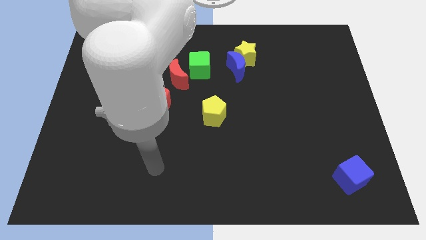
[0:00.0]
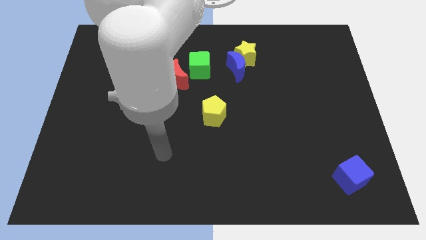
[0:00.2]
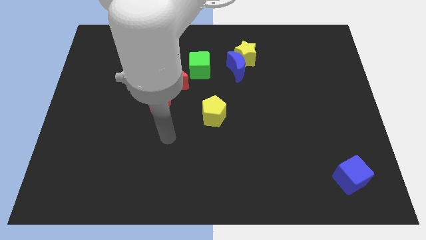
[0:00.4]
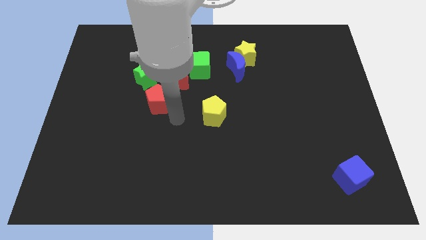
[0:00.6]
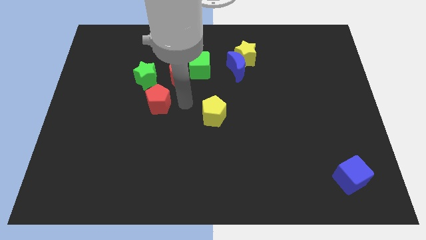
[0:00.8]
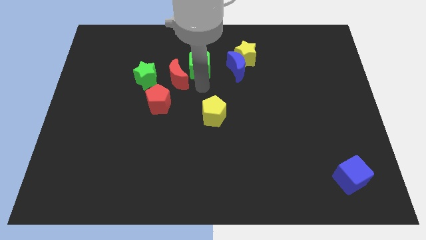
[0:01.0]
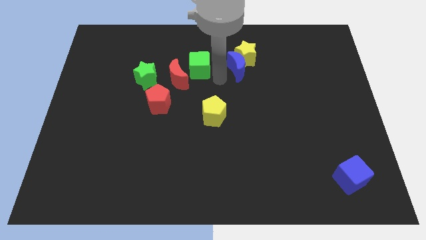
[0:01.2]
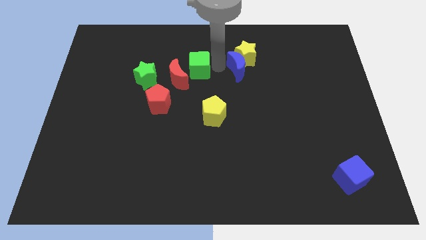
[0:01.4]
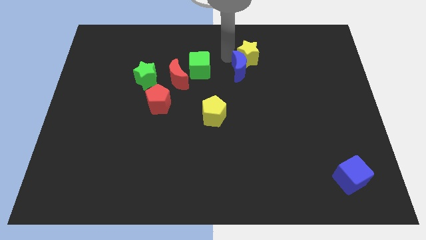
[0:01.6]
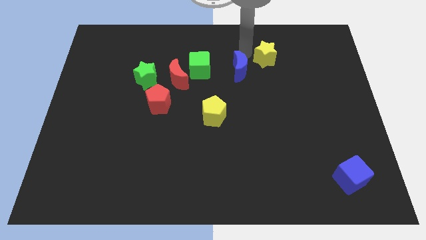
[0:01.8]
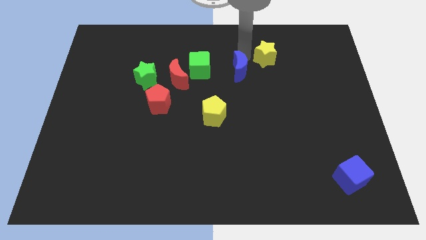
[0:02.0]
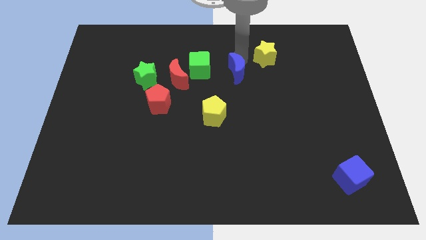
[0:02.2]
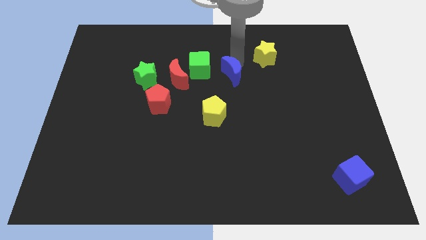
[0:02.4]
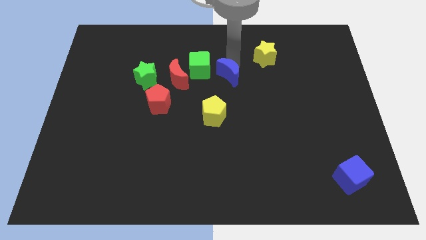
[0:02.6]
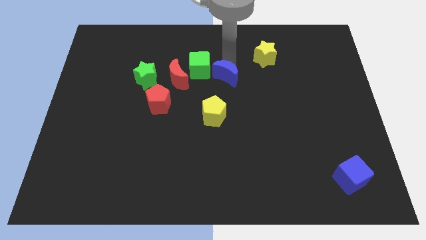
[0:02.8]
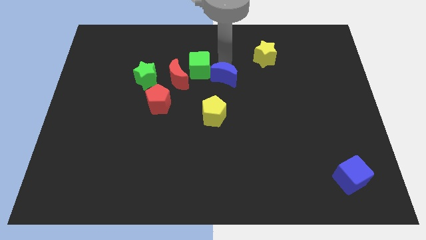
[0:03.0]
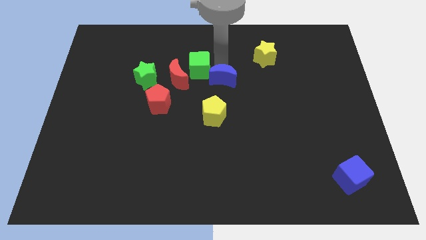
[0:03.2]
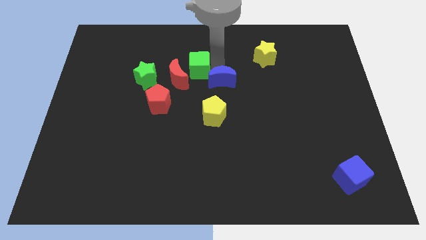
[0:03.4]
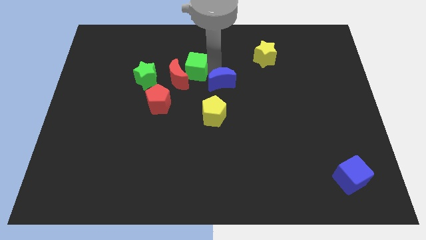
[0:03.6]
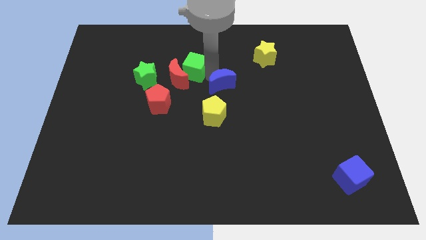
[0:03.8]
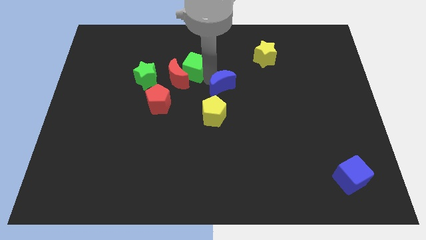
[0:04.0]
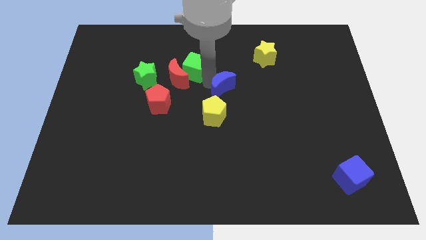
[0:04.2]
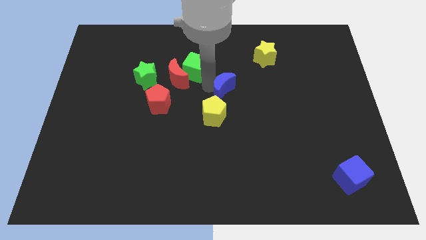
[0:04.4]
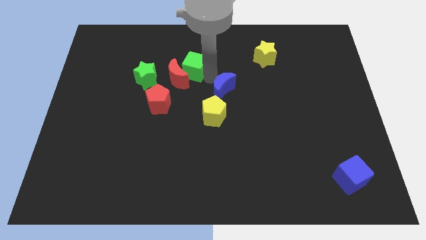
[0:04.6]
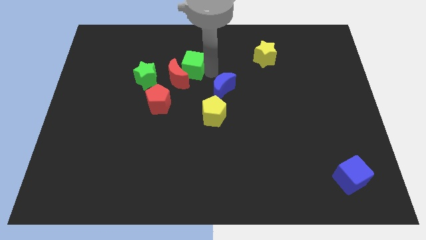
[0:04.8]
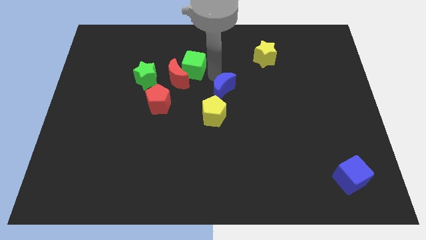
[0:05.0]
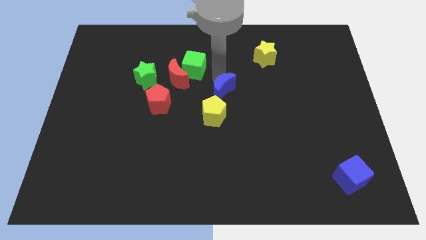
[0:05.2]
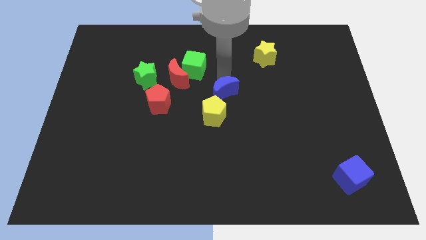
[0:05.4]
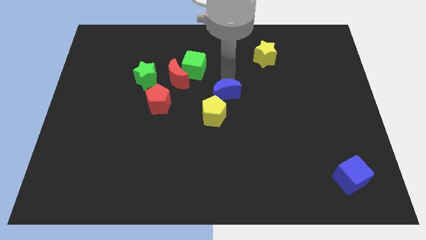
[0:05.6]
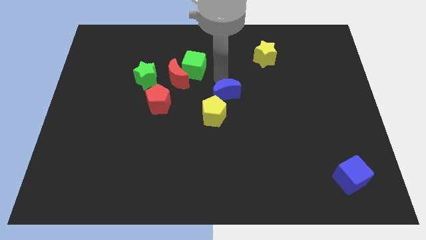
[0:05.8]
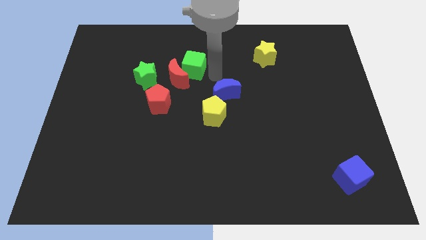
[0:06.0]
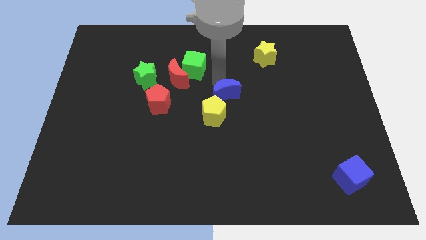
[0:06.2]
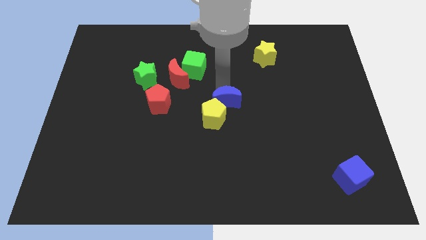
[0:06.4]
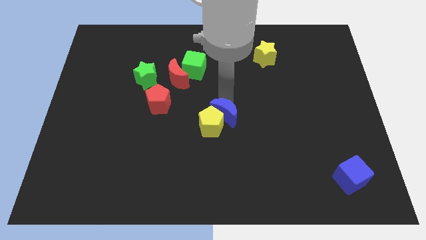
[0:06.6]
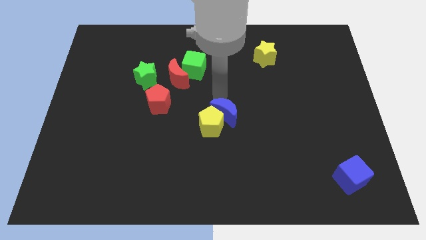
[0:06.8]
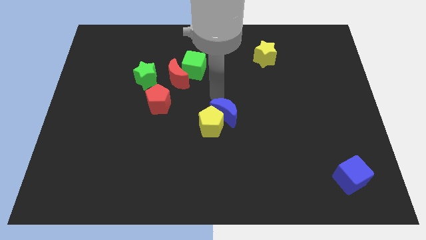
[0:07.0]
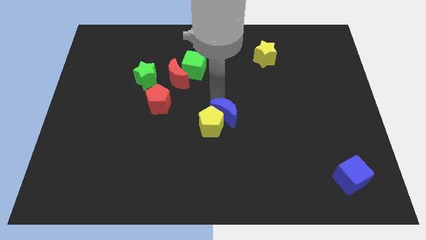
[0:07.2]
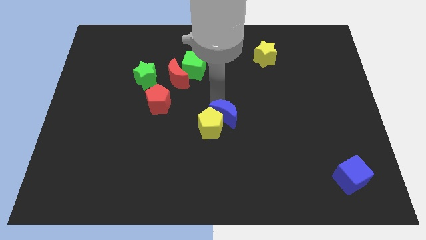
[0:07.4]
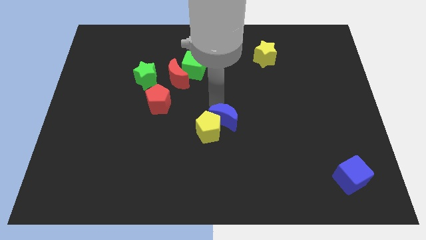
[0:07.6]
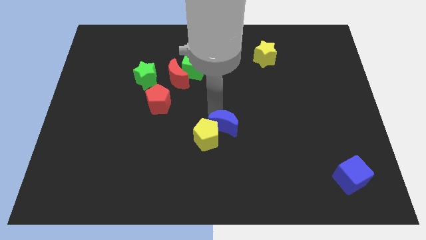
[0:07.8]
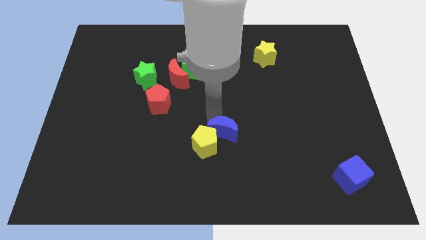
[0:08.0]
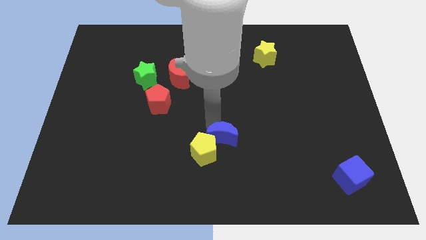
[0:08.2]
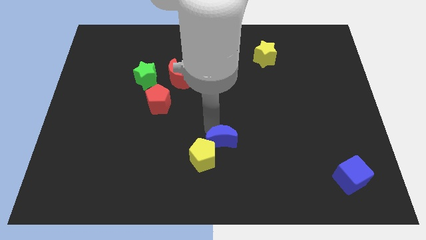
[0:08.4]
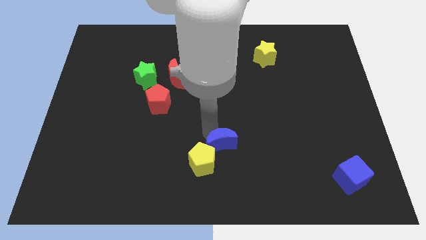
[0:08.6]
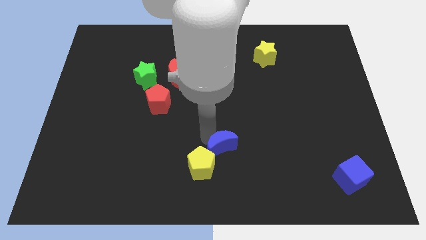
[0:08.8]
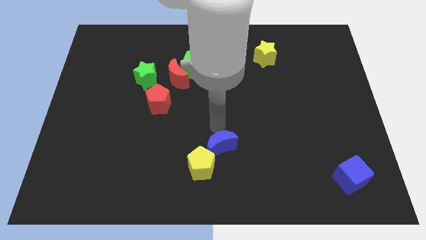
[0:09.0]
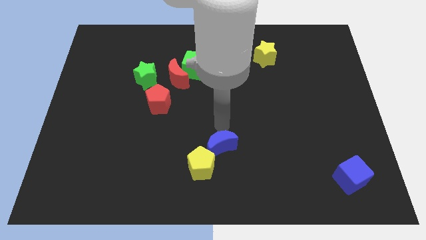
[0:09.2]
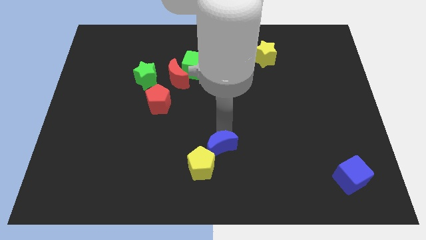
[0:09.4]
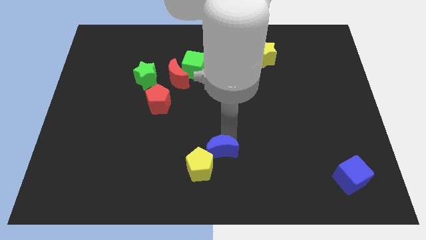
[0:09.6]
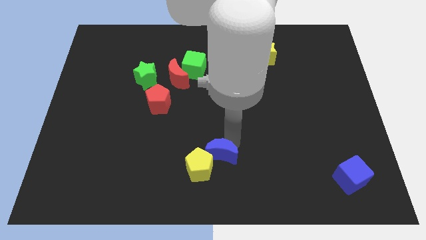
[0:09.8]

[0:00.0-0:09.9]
push the blue moon to the bottom

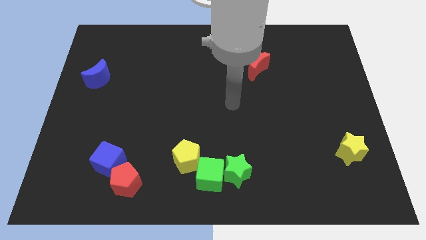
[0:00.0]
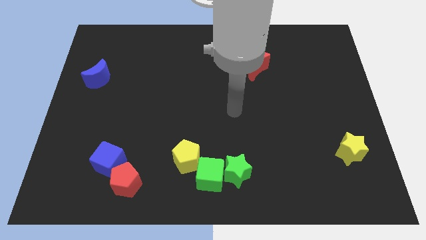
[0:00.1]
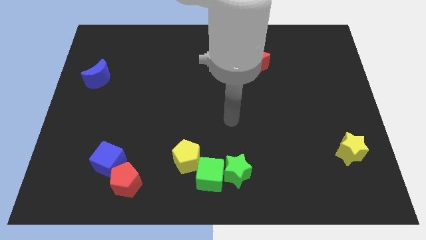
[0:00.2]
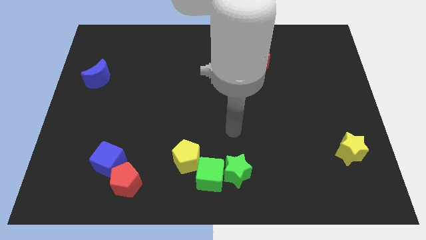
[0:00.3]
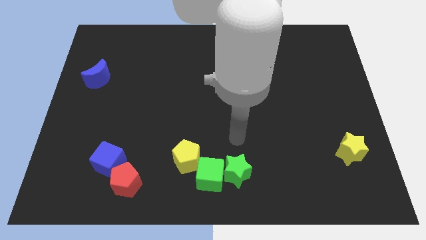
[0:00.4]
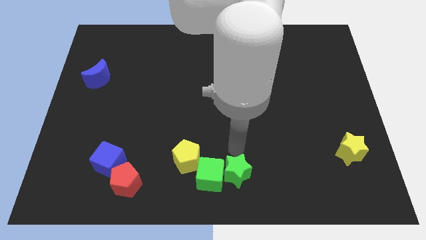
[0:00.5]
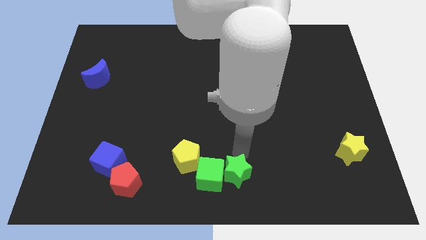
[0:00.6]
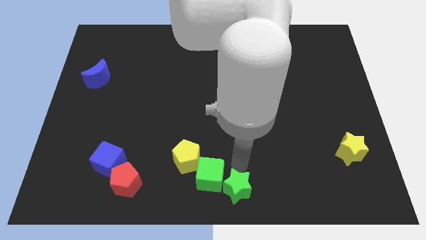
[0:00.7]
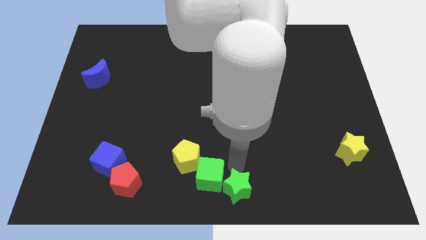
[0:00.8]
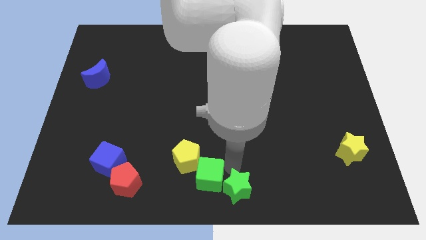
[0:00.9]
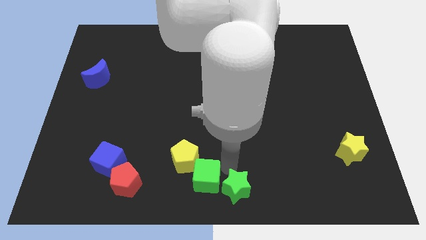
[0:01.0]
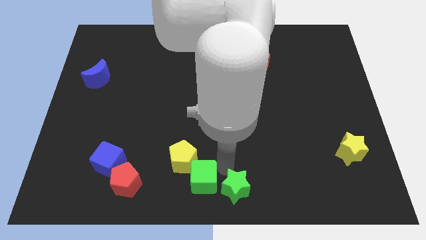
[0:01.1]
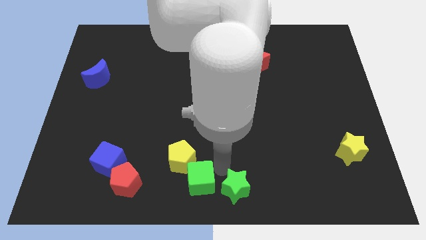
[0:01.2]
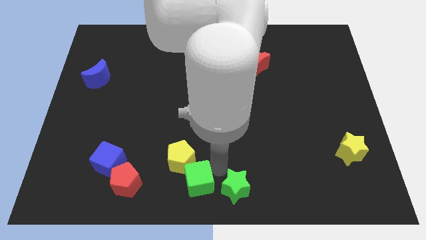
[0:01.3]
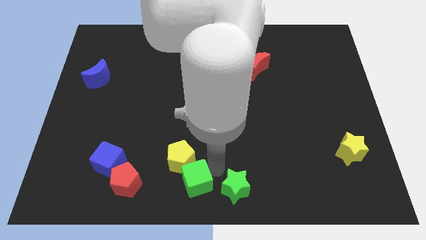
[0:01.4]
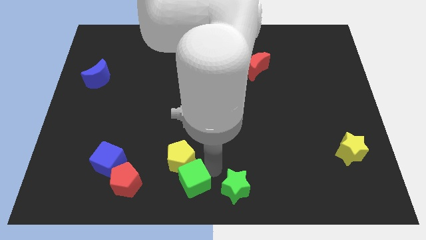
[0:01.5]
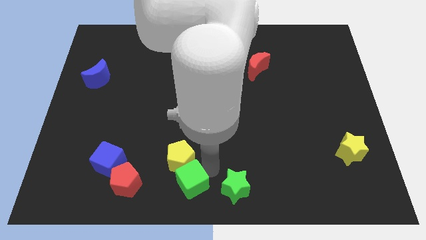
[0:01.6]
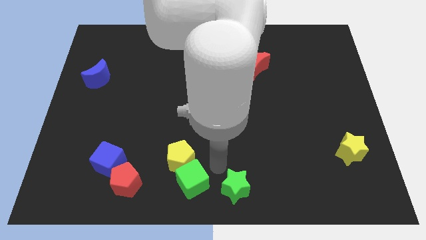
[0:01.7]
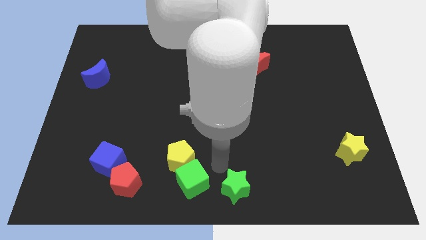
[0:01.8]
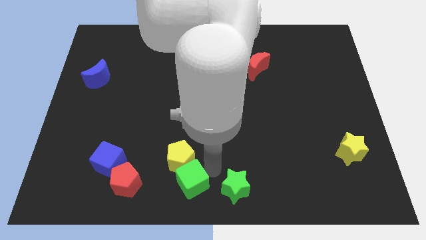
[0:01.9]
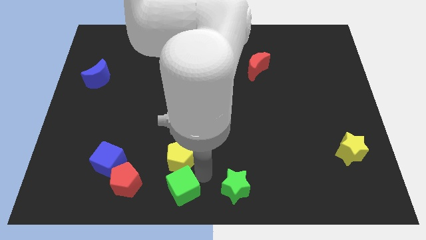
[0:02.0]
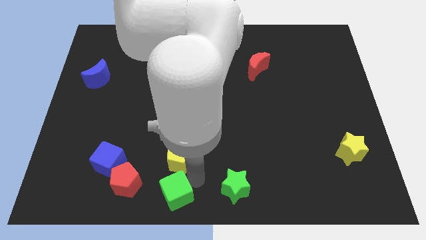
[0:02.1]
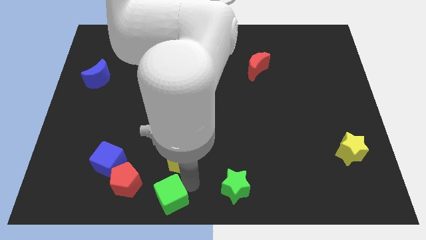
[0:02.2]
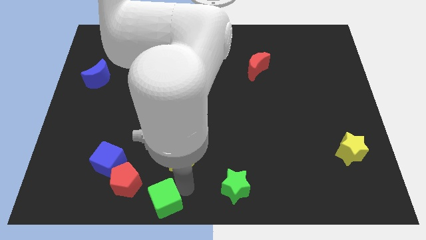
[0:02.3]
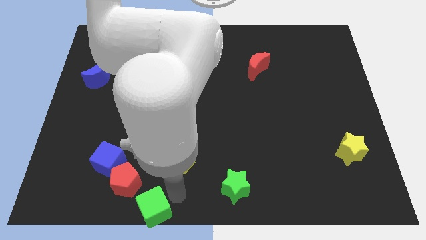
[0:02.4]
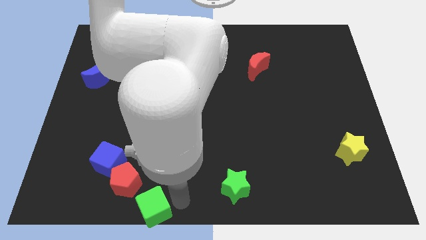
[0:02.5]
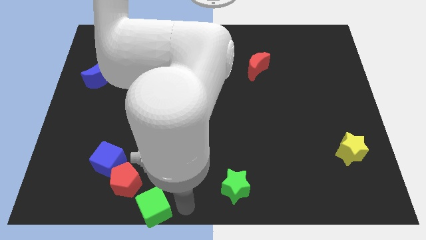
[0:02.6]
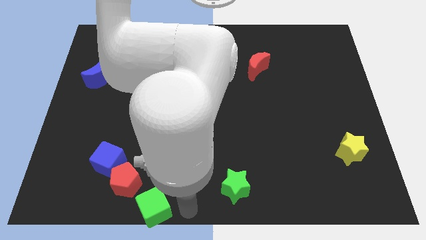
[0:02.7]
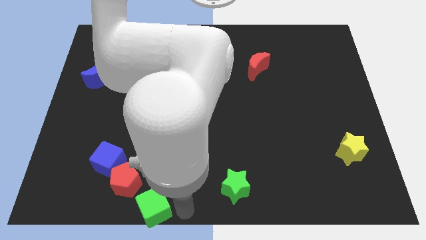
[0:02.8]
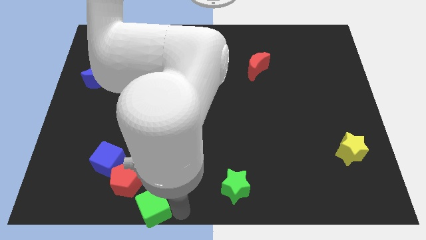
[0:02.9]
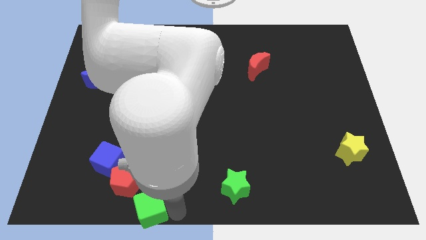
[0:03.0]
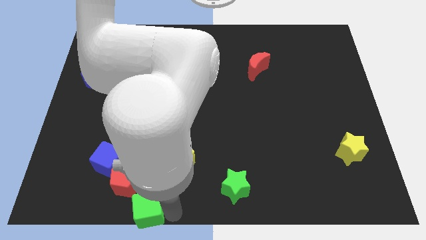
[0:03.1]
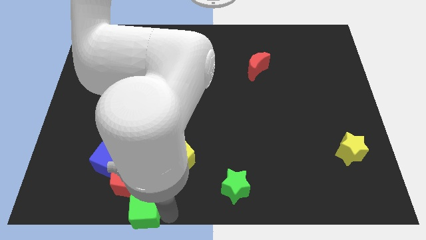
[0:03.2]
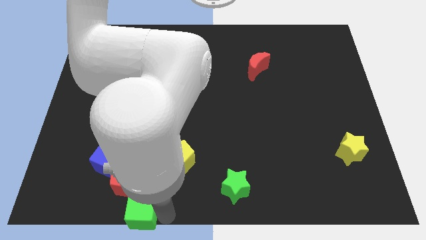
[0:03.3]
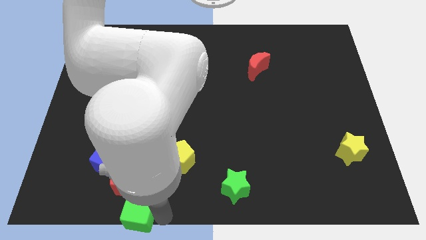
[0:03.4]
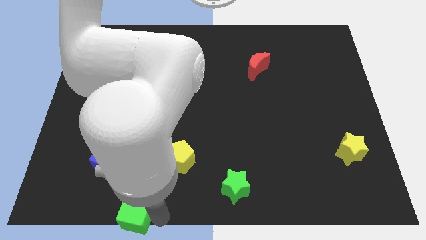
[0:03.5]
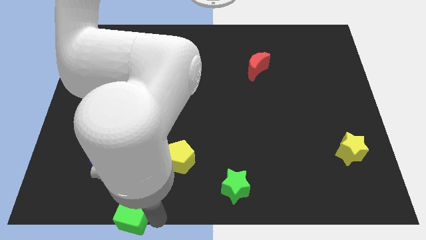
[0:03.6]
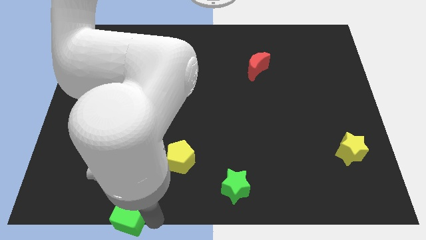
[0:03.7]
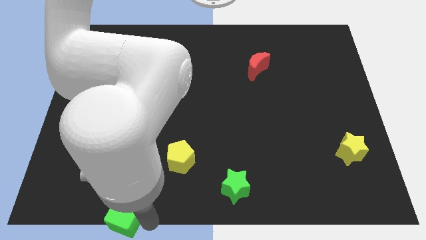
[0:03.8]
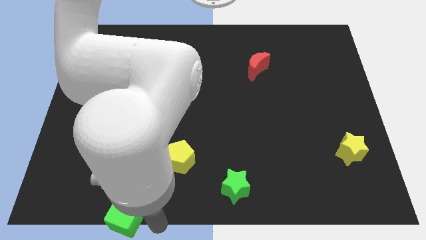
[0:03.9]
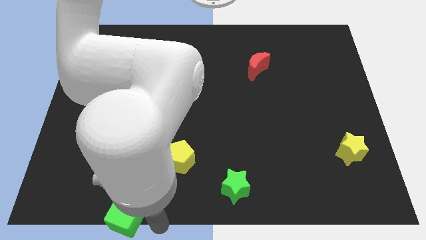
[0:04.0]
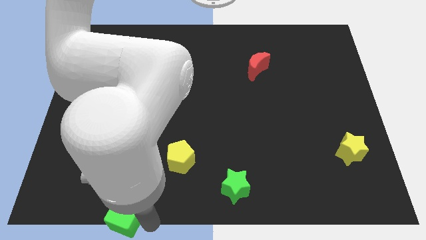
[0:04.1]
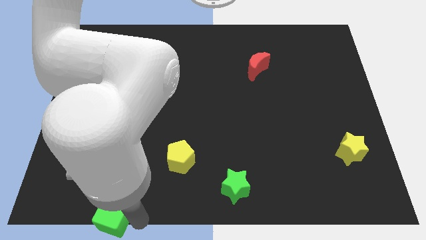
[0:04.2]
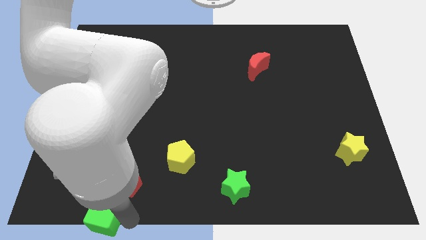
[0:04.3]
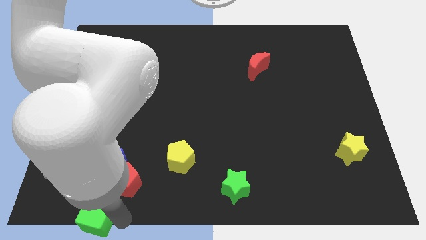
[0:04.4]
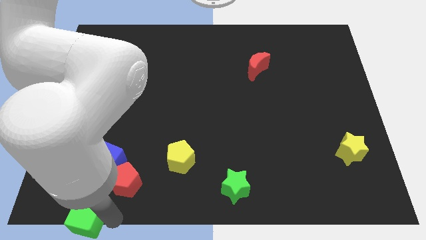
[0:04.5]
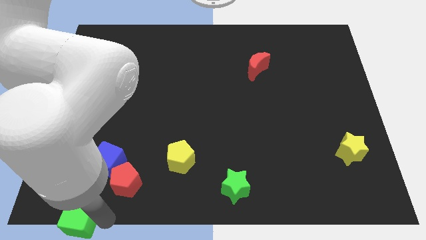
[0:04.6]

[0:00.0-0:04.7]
slide the green cube to the bottom left corner
